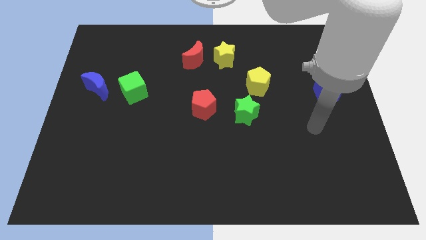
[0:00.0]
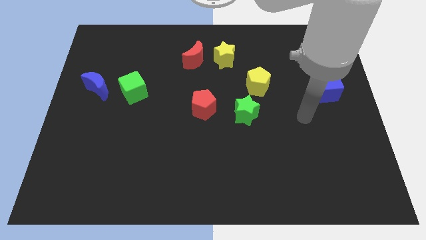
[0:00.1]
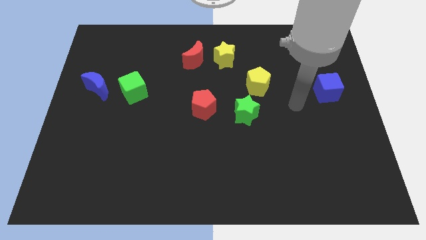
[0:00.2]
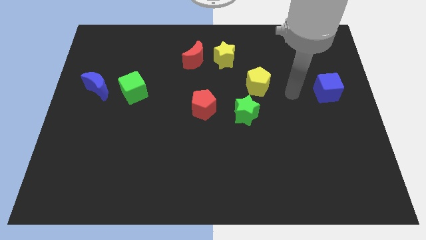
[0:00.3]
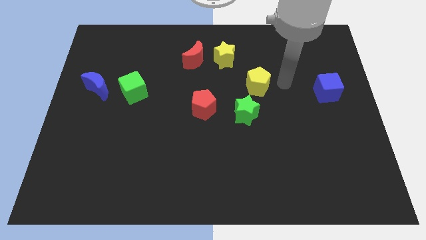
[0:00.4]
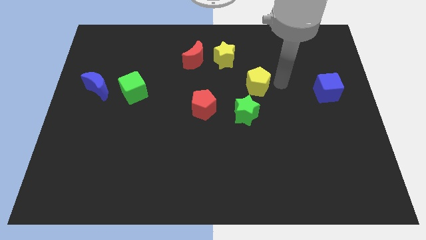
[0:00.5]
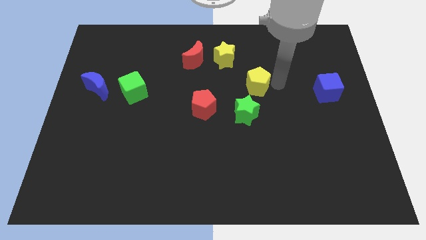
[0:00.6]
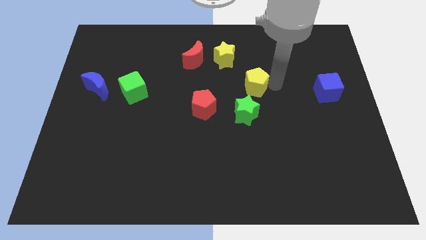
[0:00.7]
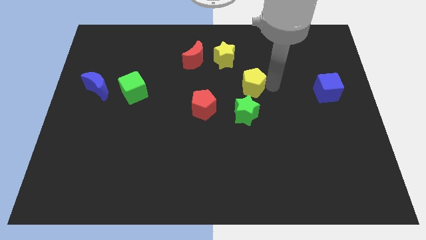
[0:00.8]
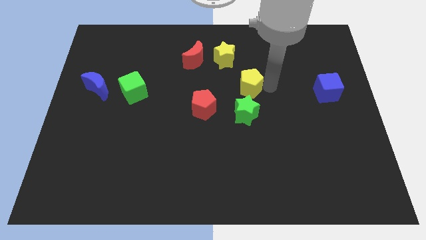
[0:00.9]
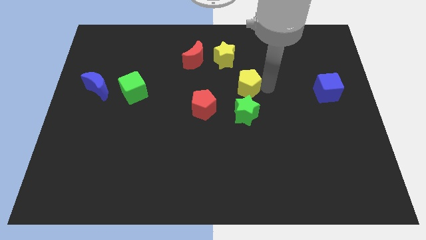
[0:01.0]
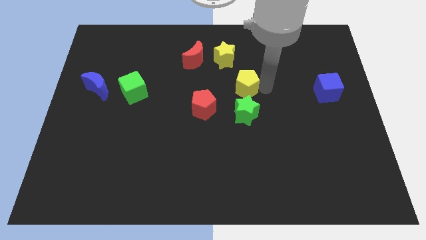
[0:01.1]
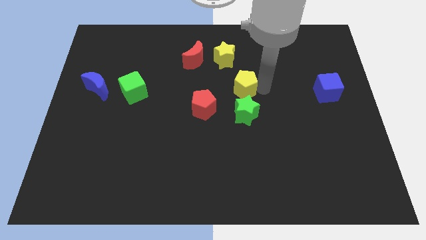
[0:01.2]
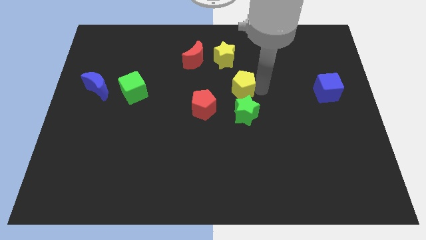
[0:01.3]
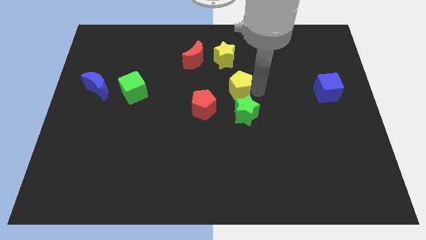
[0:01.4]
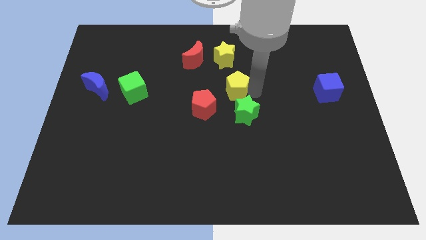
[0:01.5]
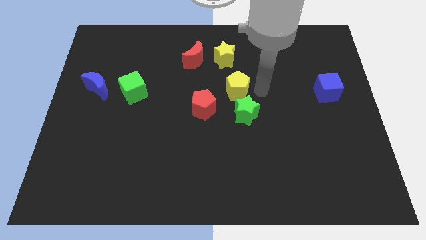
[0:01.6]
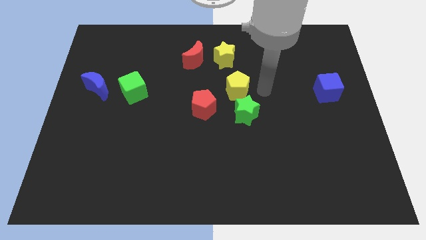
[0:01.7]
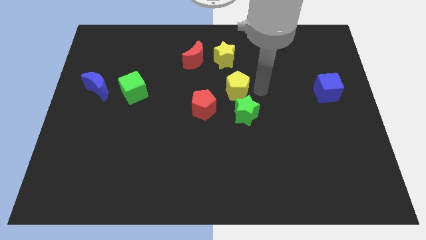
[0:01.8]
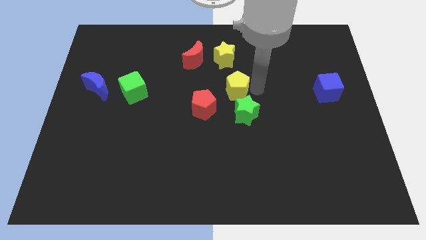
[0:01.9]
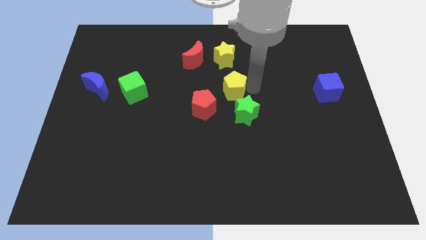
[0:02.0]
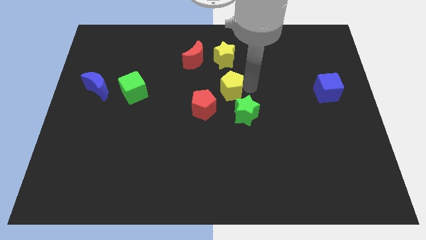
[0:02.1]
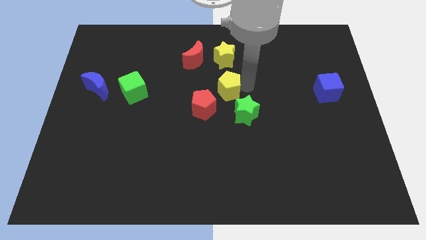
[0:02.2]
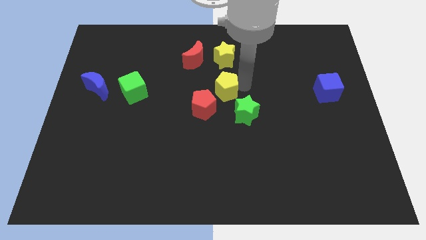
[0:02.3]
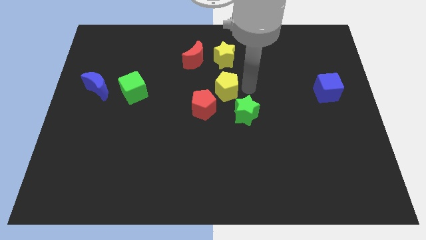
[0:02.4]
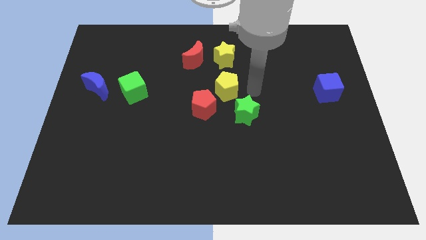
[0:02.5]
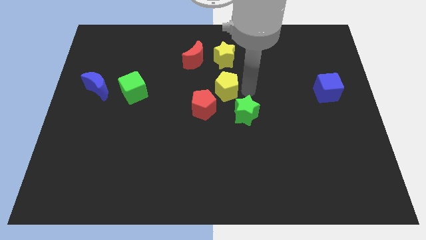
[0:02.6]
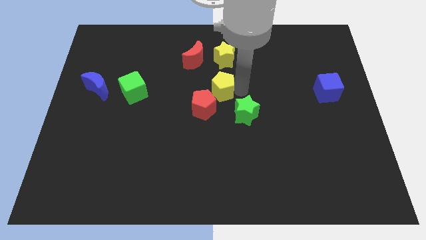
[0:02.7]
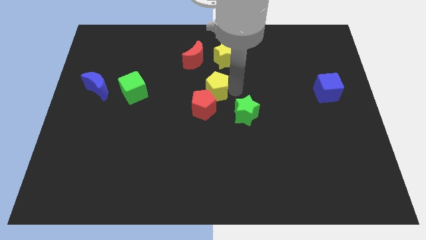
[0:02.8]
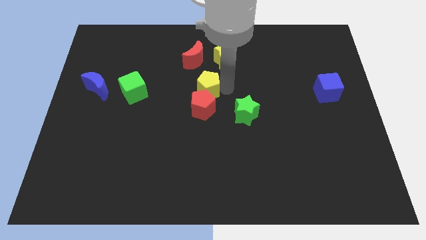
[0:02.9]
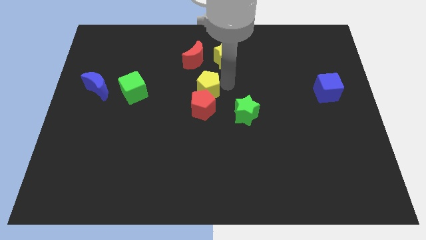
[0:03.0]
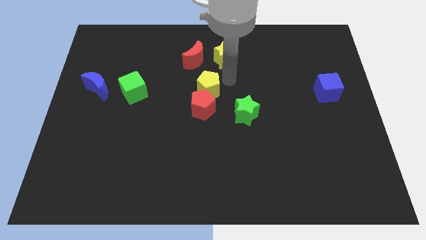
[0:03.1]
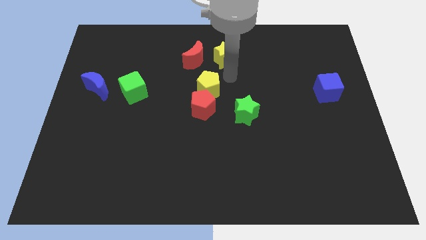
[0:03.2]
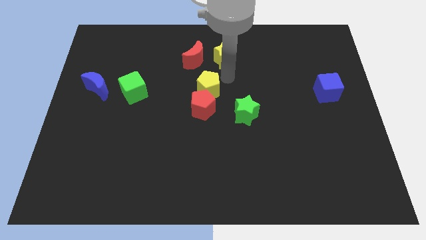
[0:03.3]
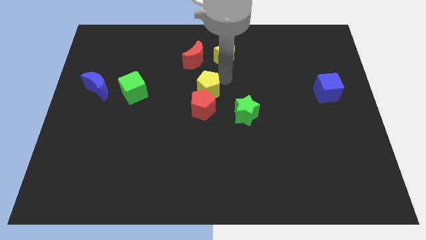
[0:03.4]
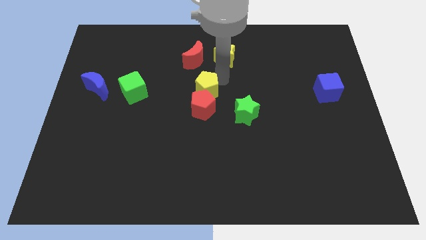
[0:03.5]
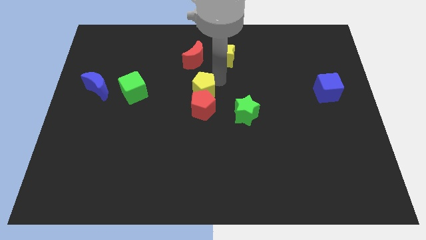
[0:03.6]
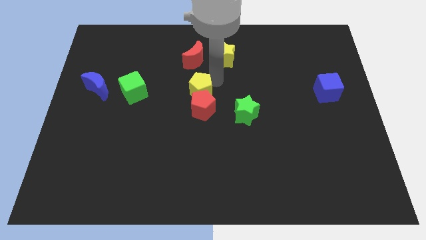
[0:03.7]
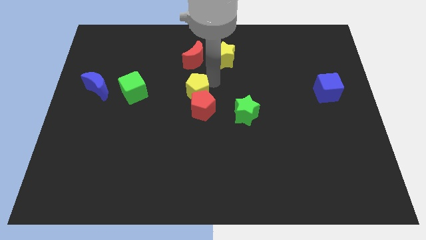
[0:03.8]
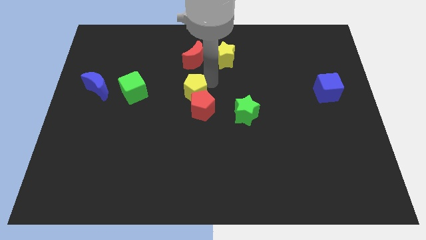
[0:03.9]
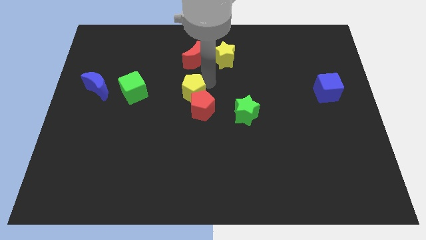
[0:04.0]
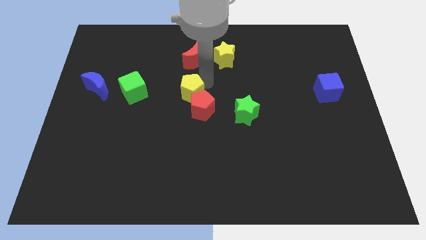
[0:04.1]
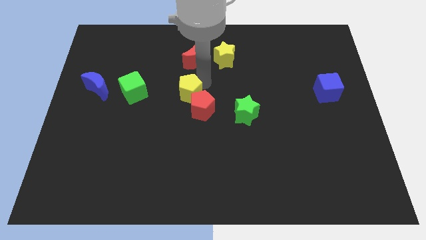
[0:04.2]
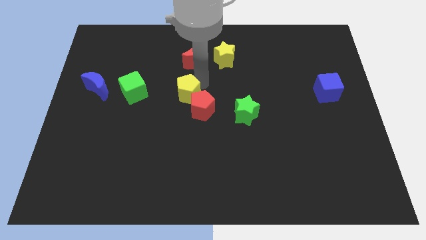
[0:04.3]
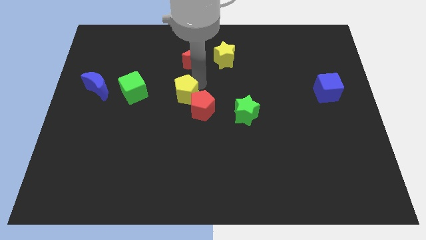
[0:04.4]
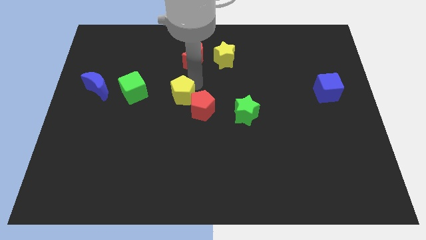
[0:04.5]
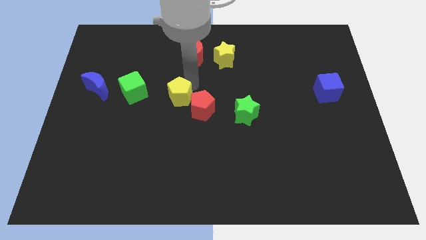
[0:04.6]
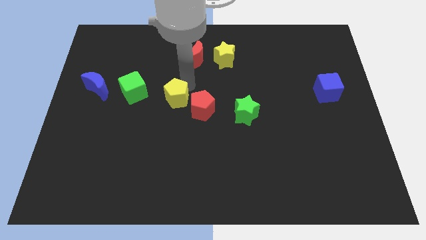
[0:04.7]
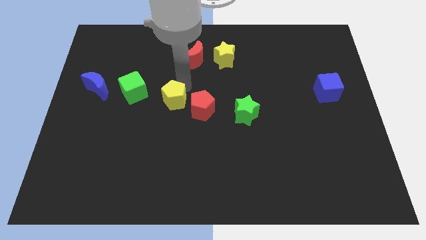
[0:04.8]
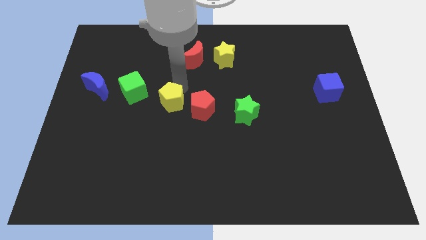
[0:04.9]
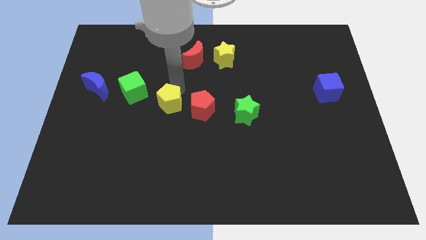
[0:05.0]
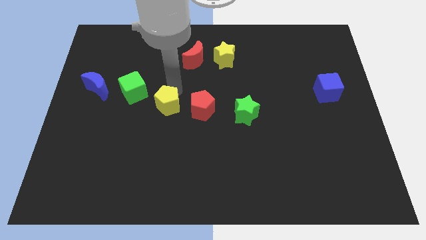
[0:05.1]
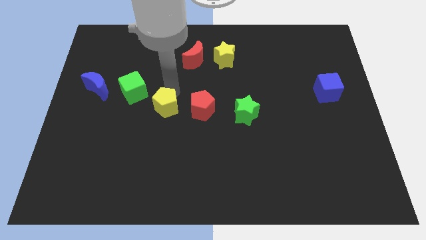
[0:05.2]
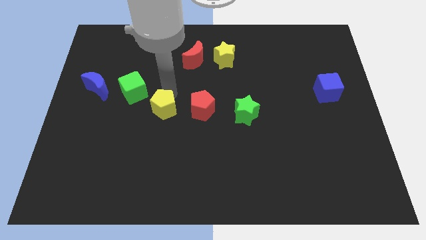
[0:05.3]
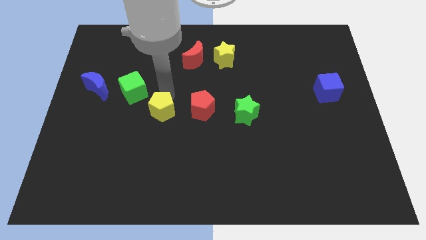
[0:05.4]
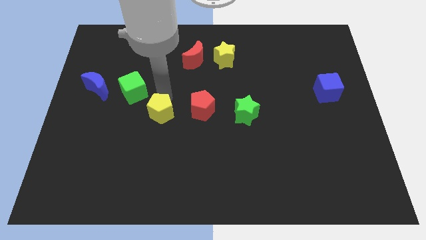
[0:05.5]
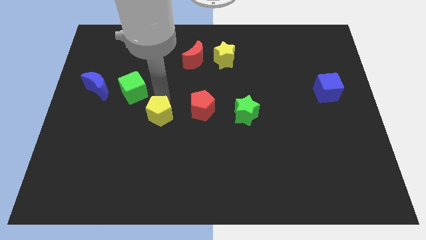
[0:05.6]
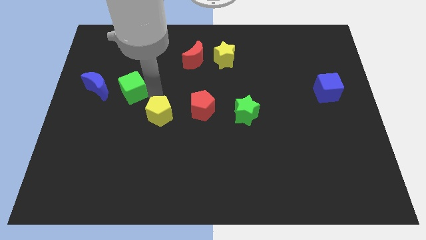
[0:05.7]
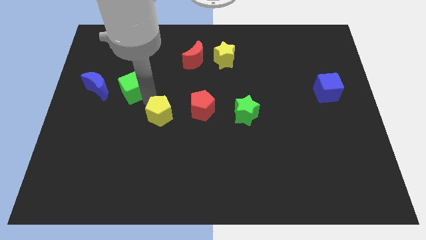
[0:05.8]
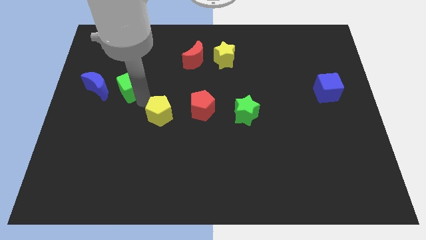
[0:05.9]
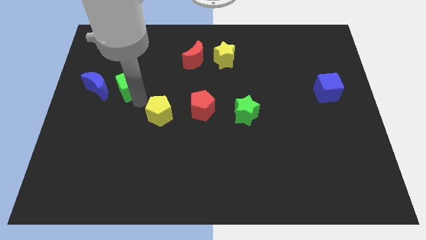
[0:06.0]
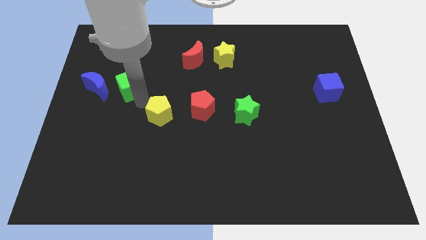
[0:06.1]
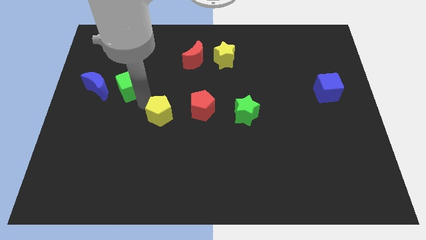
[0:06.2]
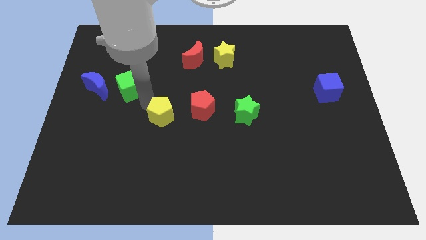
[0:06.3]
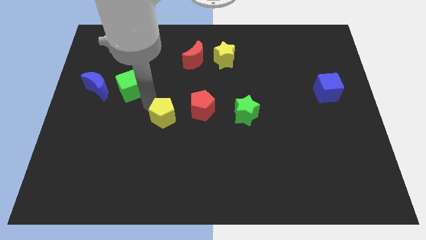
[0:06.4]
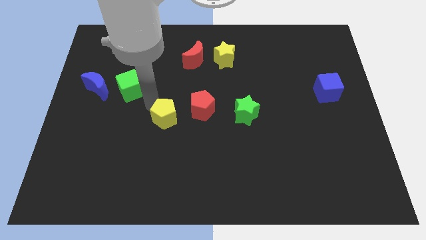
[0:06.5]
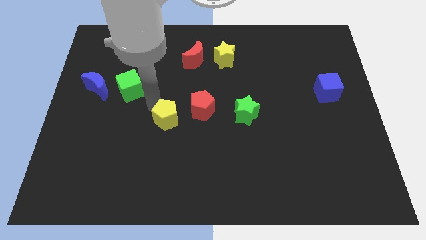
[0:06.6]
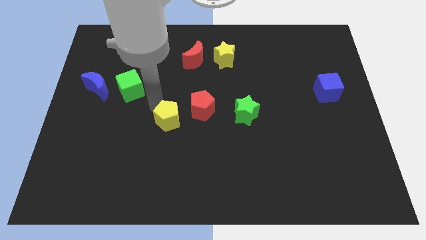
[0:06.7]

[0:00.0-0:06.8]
slide the yellow pentagon downwards and left

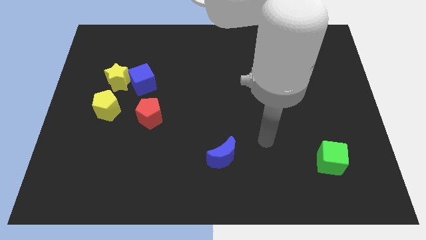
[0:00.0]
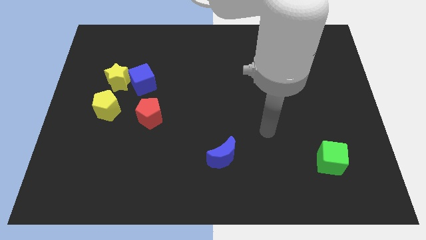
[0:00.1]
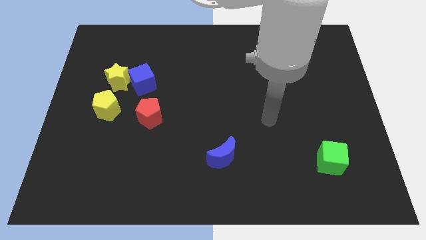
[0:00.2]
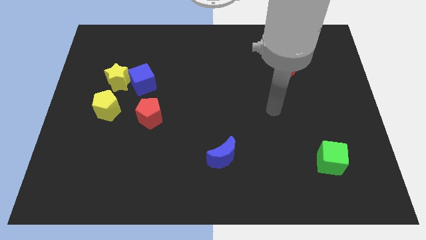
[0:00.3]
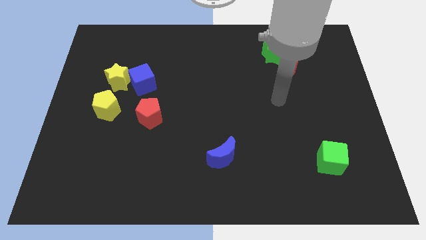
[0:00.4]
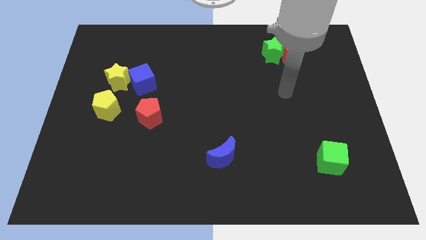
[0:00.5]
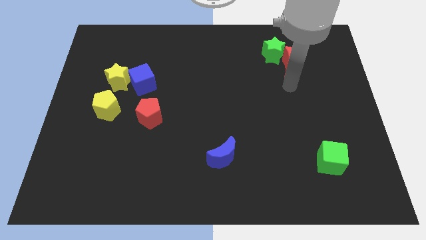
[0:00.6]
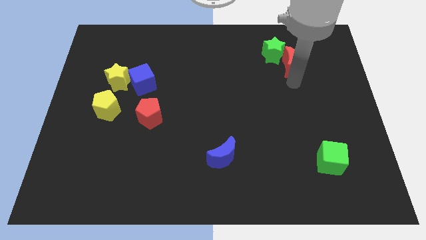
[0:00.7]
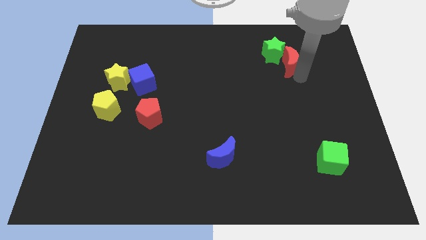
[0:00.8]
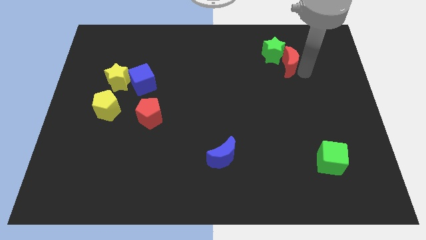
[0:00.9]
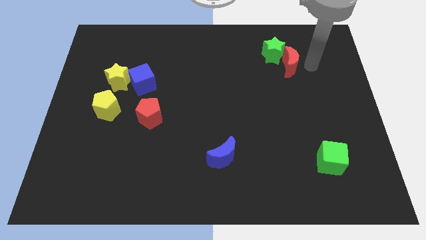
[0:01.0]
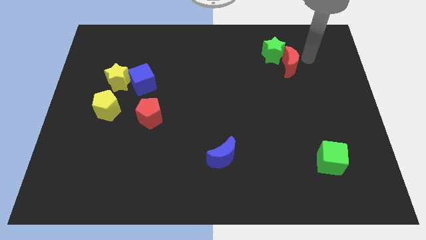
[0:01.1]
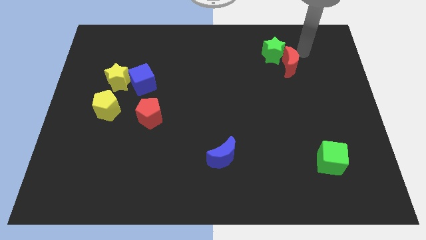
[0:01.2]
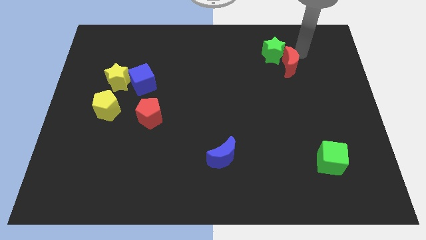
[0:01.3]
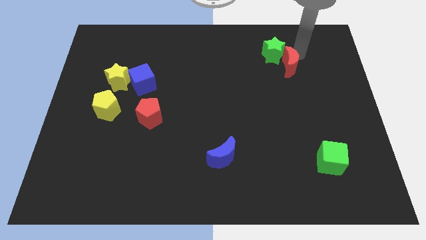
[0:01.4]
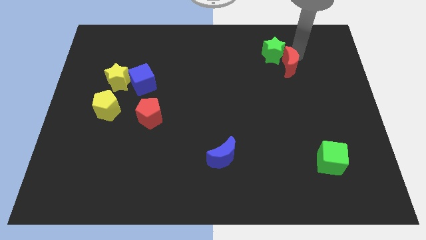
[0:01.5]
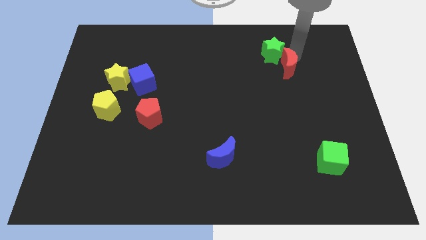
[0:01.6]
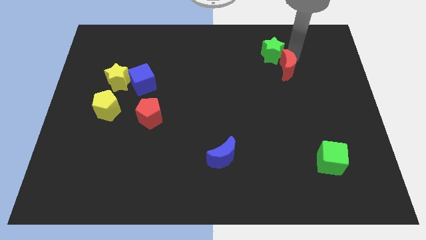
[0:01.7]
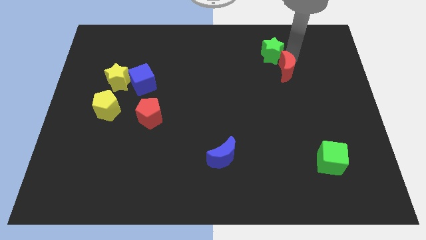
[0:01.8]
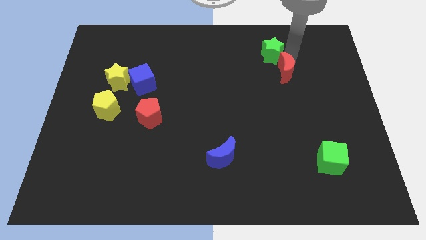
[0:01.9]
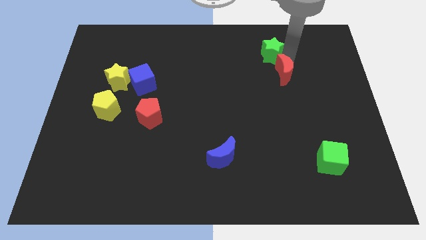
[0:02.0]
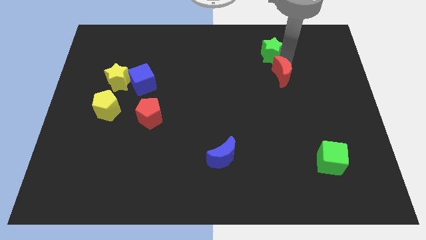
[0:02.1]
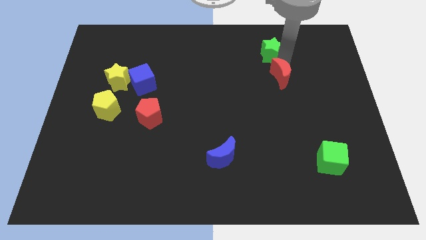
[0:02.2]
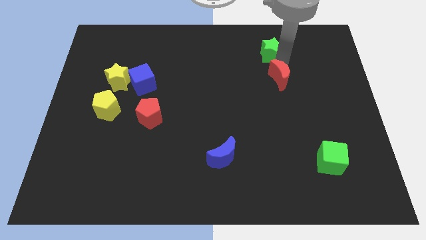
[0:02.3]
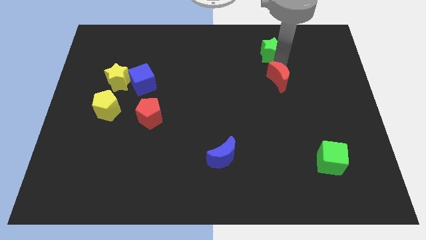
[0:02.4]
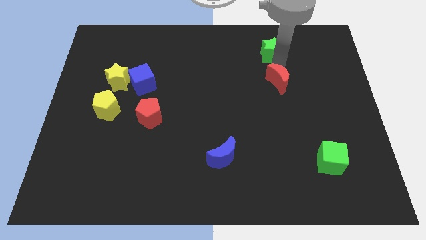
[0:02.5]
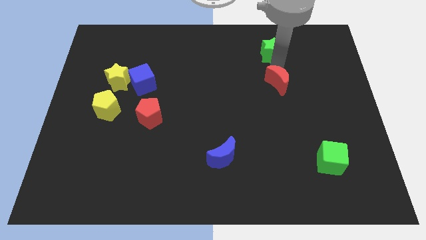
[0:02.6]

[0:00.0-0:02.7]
push the red moon down and then left somewhat
